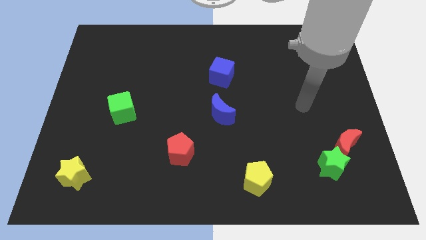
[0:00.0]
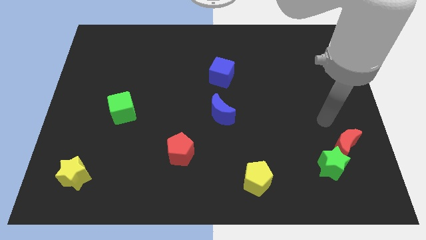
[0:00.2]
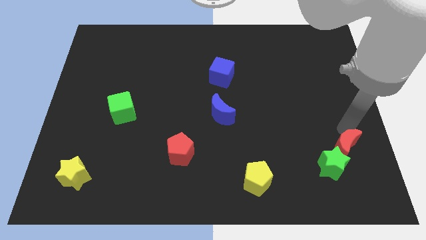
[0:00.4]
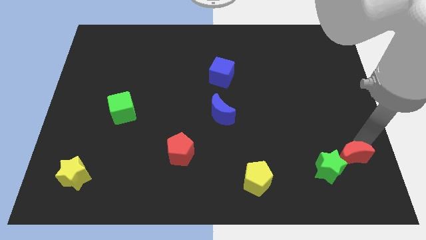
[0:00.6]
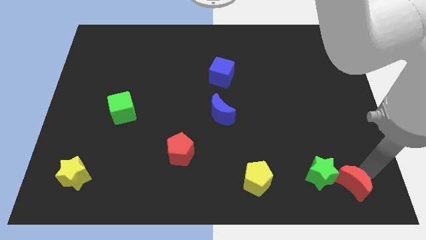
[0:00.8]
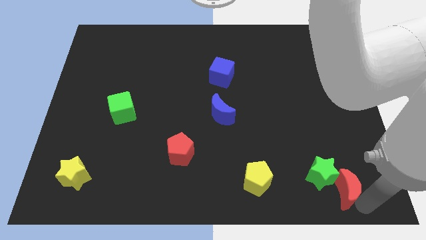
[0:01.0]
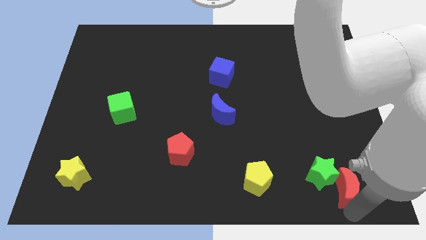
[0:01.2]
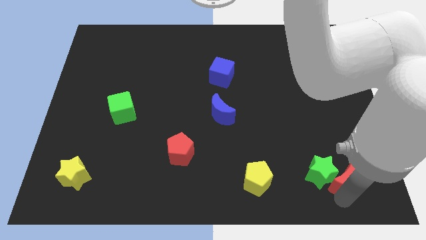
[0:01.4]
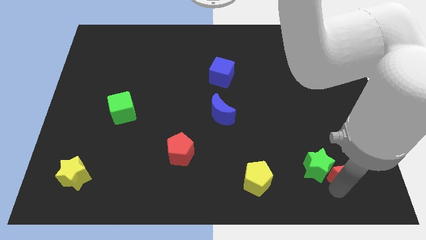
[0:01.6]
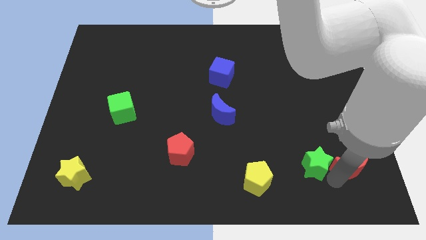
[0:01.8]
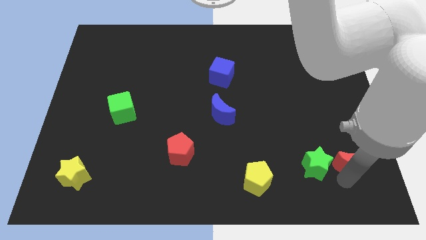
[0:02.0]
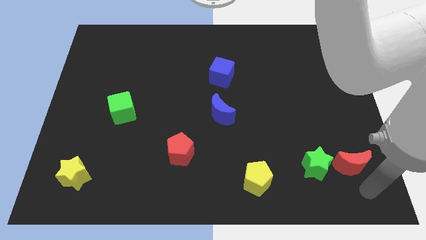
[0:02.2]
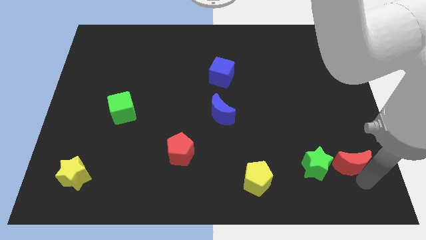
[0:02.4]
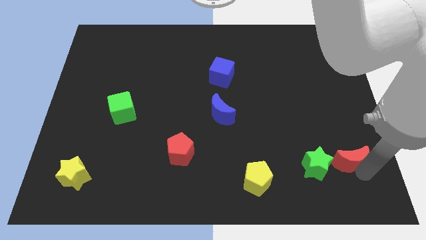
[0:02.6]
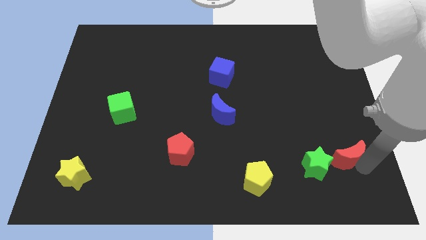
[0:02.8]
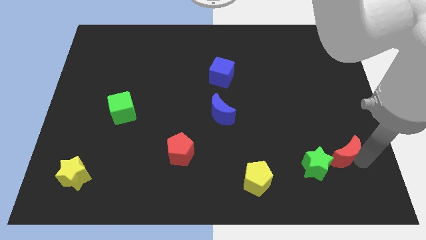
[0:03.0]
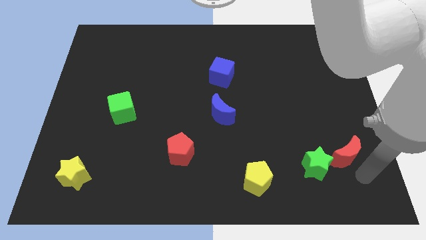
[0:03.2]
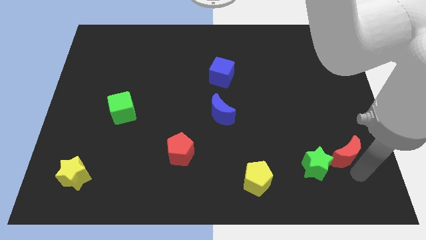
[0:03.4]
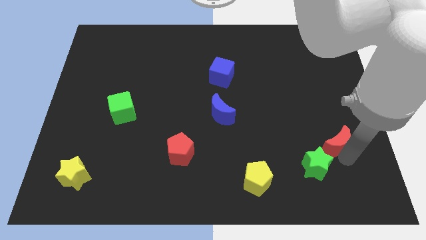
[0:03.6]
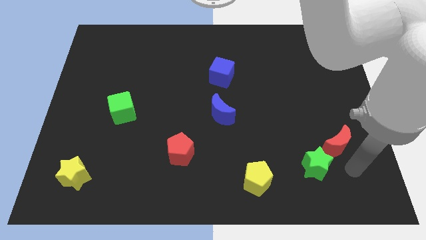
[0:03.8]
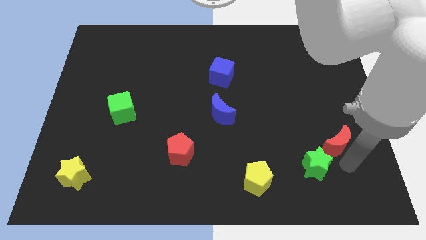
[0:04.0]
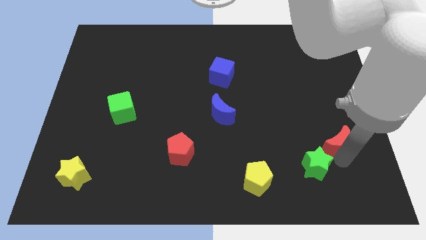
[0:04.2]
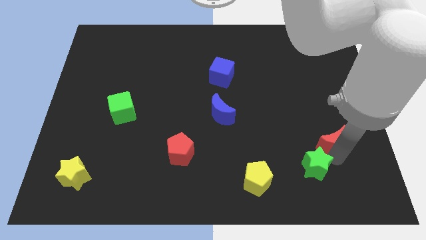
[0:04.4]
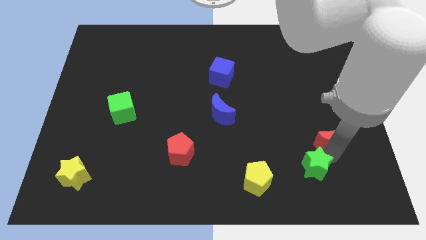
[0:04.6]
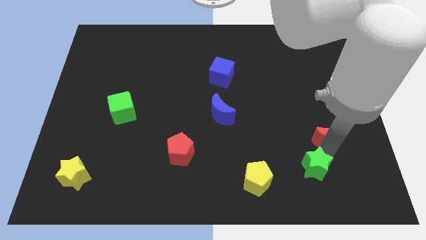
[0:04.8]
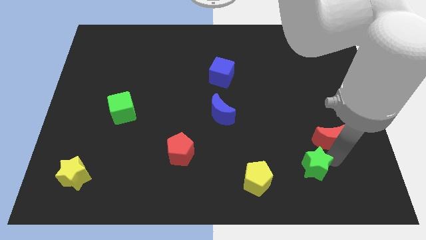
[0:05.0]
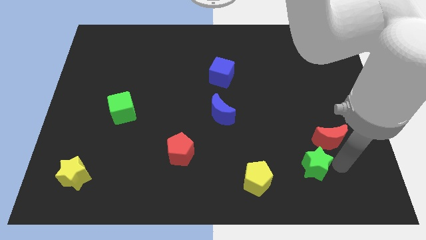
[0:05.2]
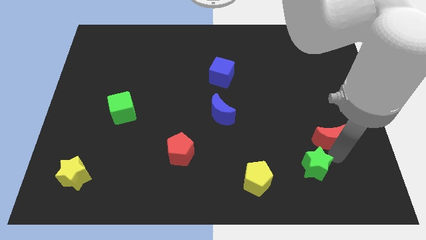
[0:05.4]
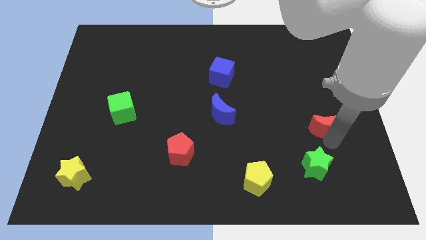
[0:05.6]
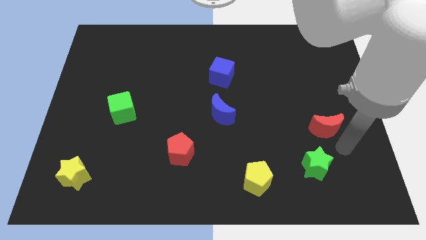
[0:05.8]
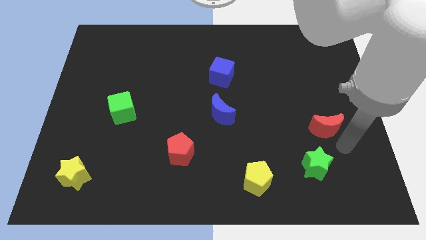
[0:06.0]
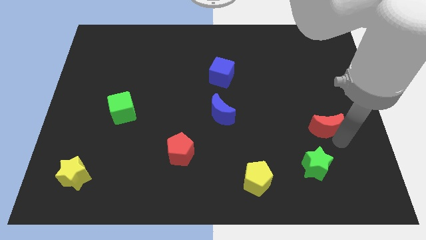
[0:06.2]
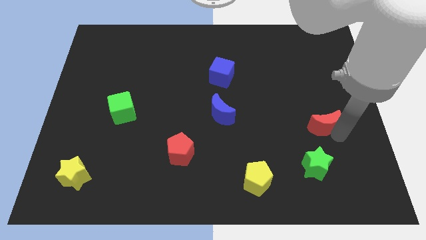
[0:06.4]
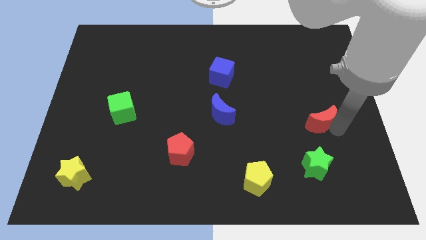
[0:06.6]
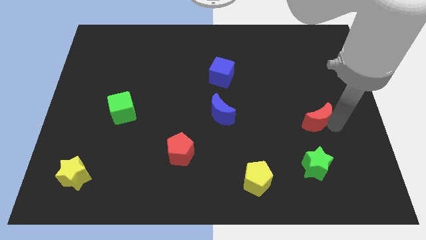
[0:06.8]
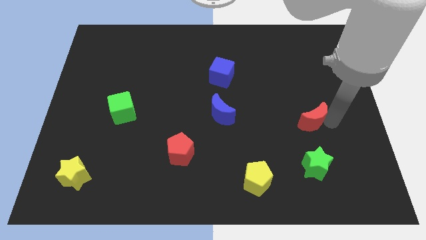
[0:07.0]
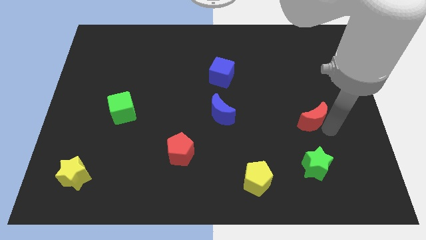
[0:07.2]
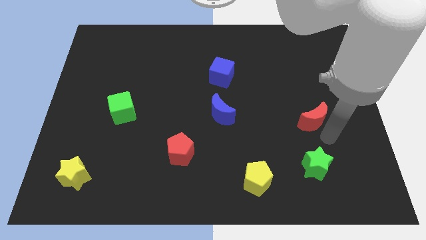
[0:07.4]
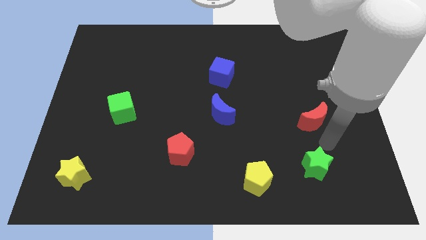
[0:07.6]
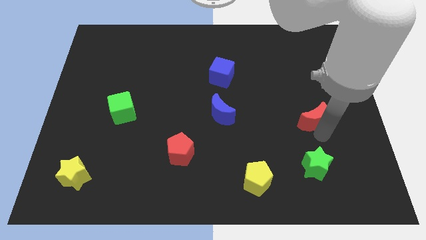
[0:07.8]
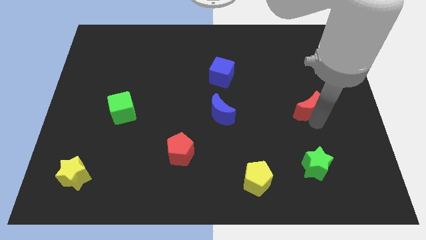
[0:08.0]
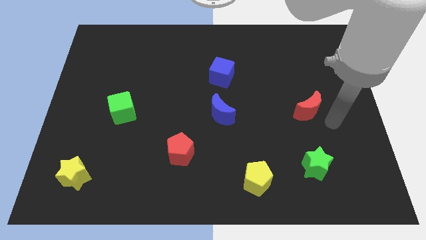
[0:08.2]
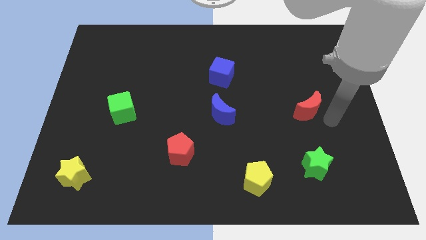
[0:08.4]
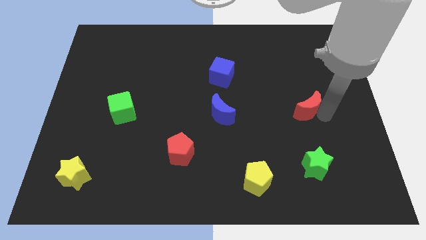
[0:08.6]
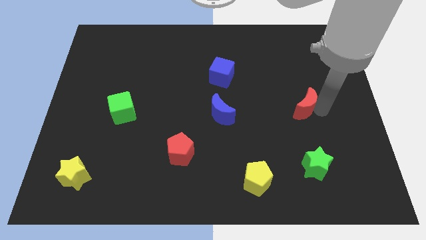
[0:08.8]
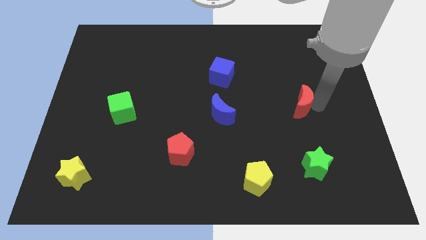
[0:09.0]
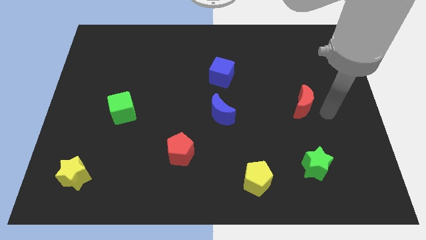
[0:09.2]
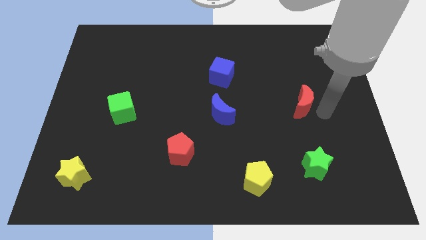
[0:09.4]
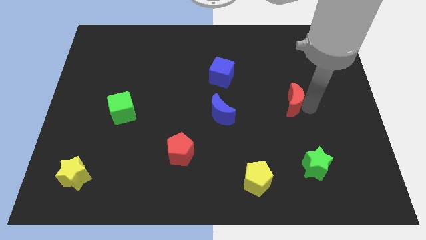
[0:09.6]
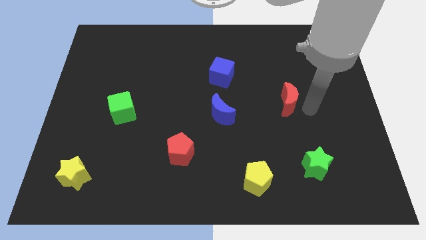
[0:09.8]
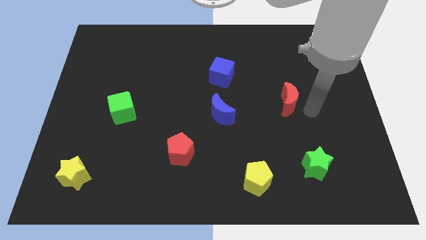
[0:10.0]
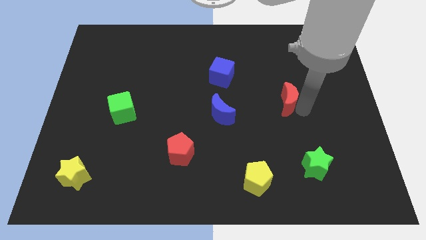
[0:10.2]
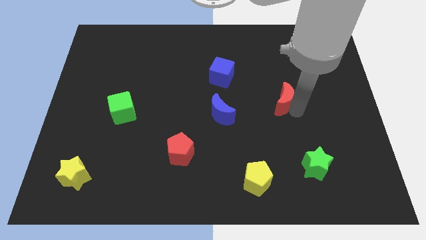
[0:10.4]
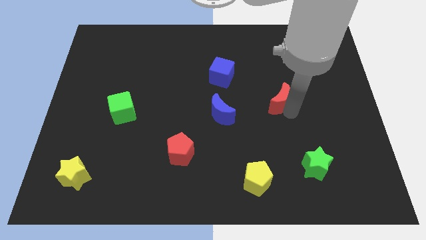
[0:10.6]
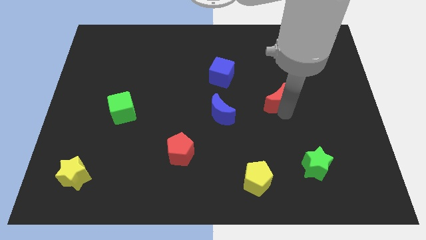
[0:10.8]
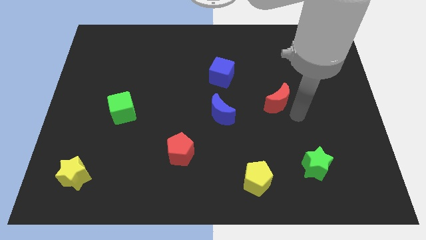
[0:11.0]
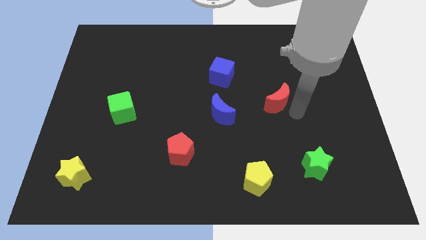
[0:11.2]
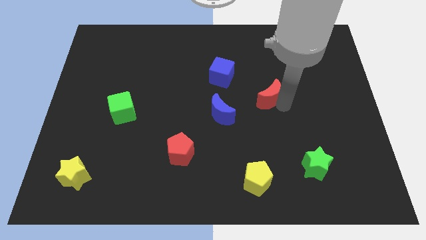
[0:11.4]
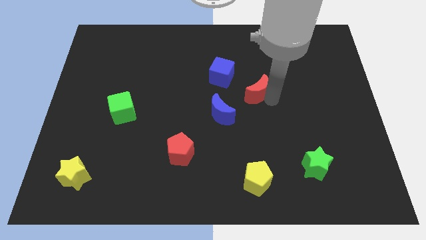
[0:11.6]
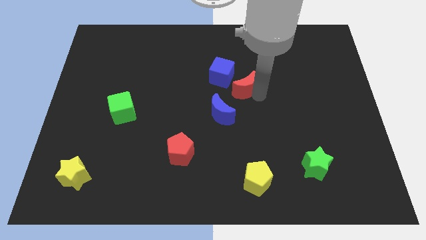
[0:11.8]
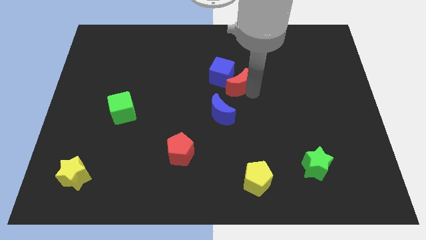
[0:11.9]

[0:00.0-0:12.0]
push the red moon close to the blue cube

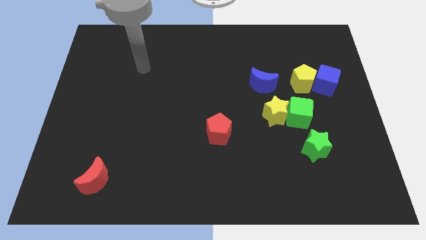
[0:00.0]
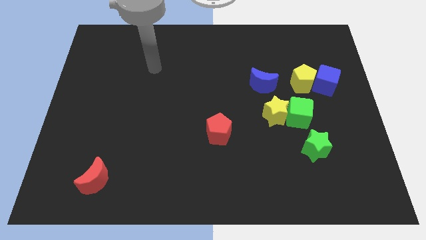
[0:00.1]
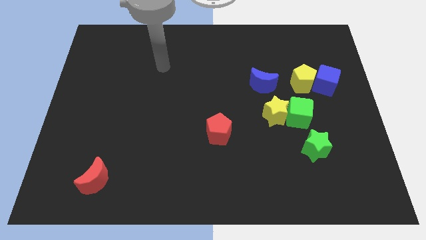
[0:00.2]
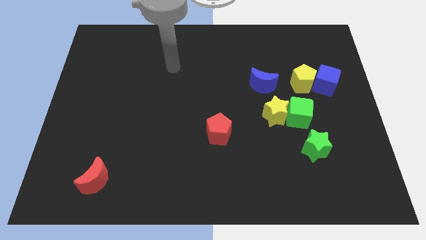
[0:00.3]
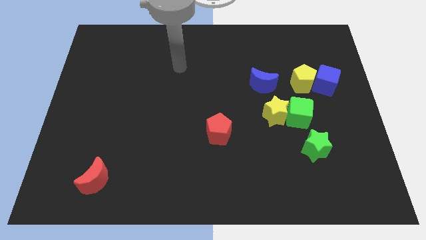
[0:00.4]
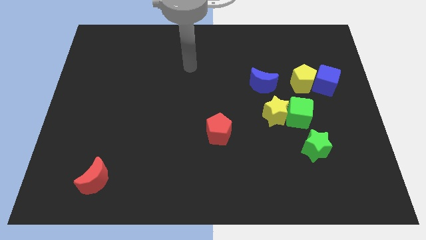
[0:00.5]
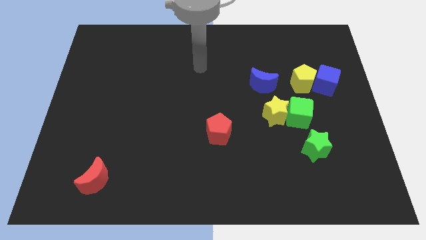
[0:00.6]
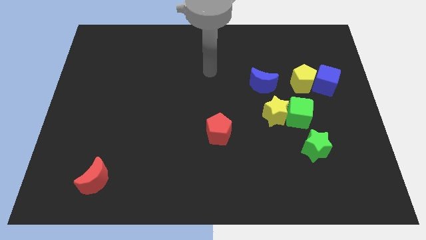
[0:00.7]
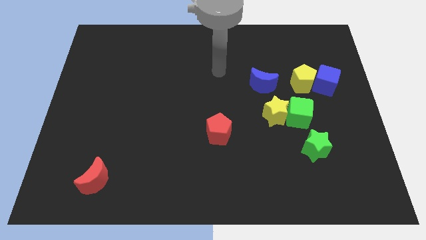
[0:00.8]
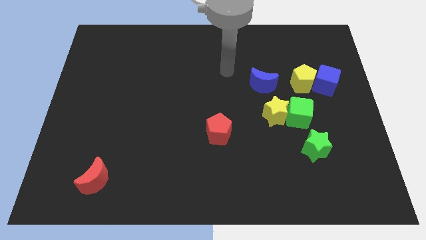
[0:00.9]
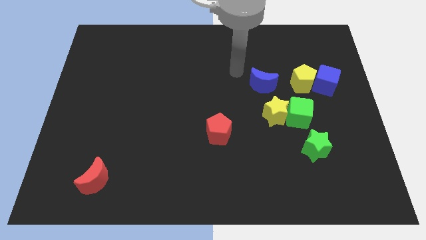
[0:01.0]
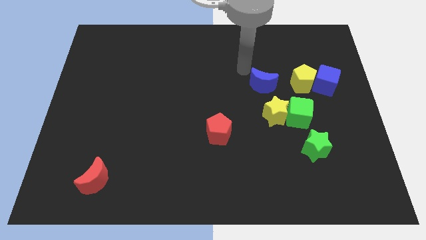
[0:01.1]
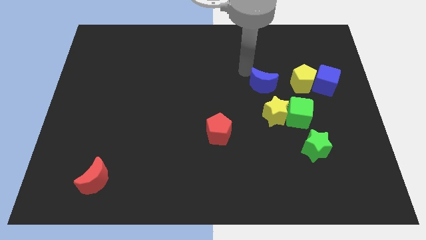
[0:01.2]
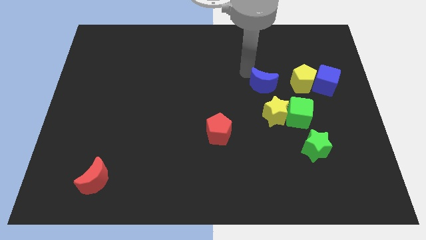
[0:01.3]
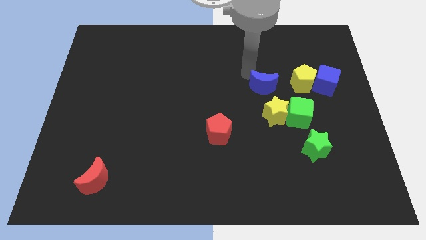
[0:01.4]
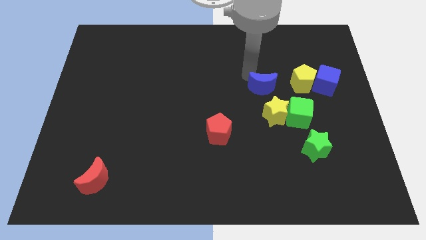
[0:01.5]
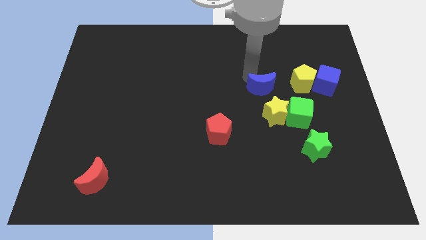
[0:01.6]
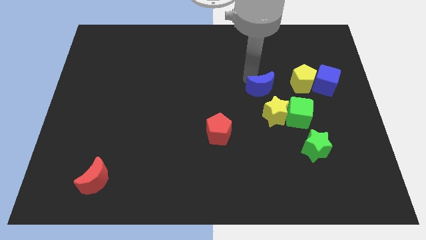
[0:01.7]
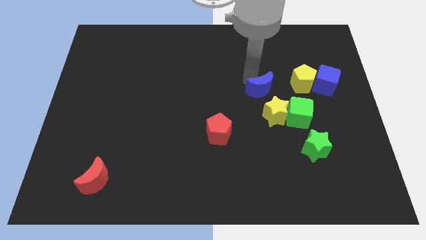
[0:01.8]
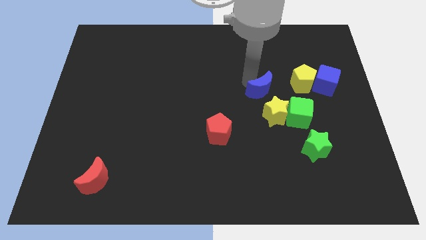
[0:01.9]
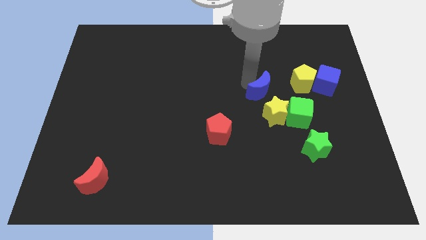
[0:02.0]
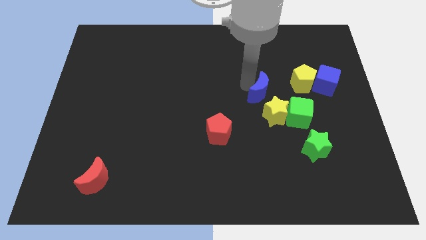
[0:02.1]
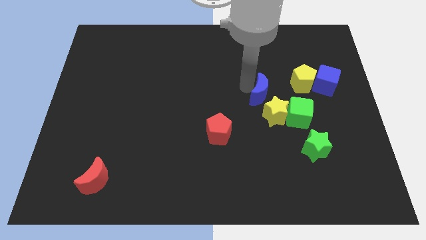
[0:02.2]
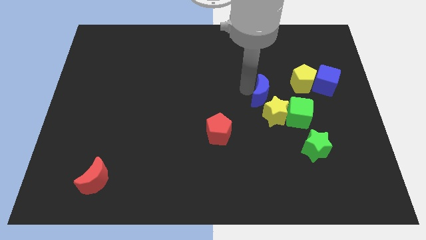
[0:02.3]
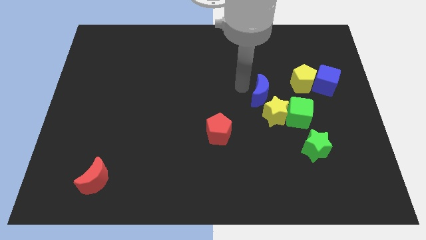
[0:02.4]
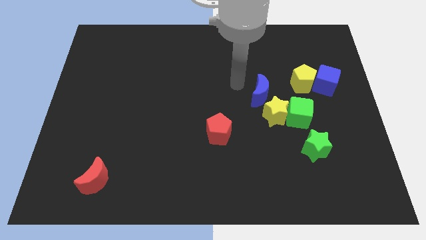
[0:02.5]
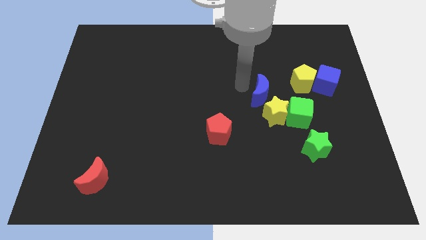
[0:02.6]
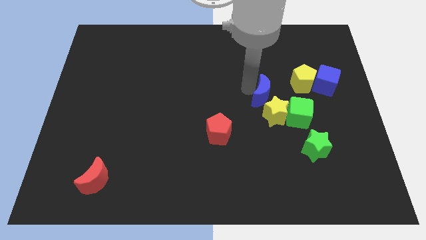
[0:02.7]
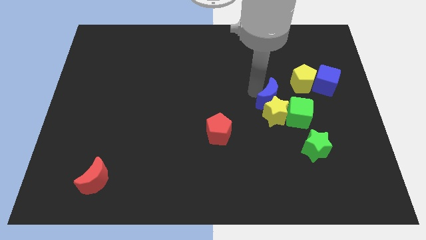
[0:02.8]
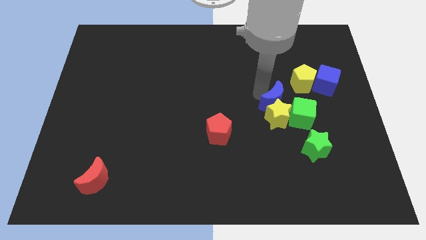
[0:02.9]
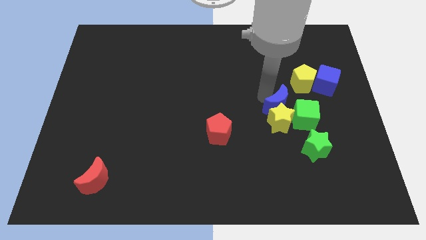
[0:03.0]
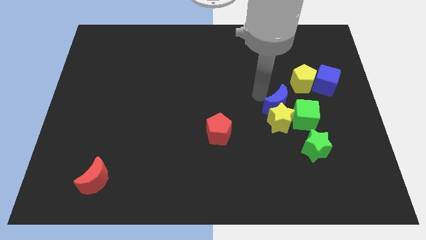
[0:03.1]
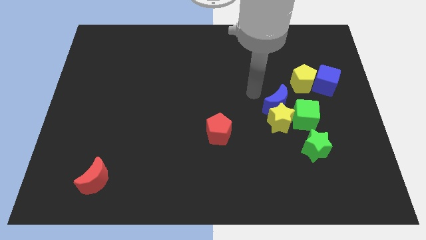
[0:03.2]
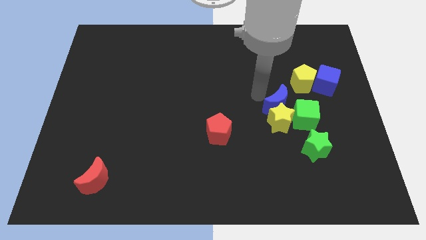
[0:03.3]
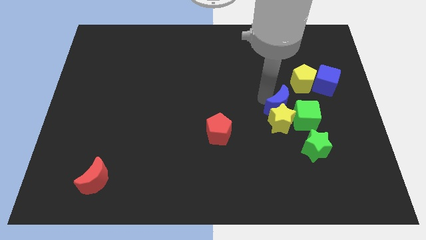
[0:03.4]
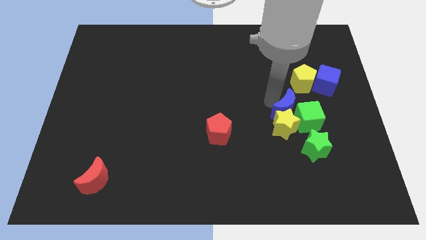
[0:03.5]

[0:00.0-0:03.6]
push the blue moon next to the green cube
